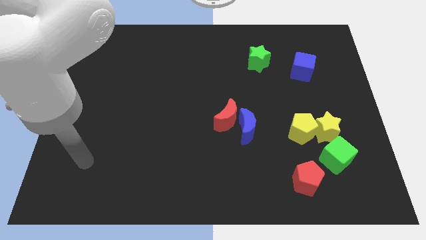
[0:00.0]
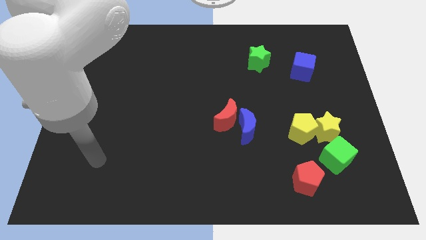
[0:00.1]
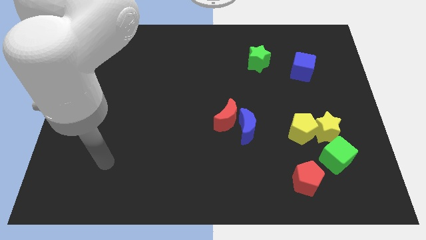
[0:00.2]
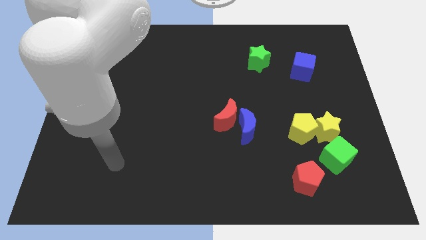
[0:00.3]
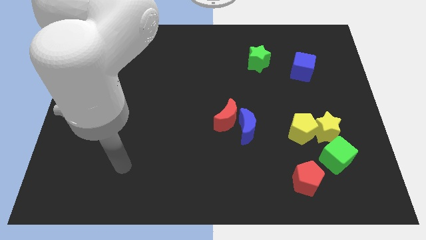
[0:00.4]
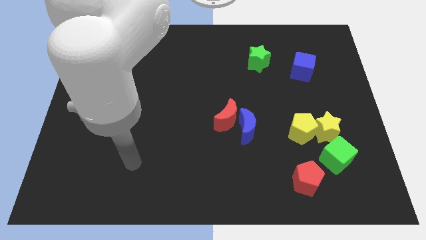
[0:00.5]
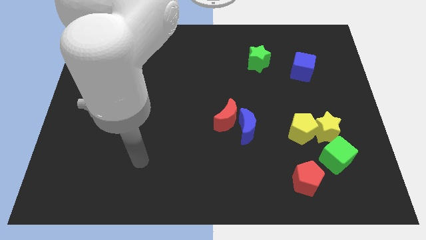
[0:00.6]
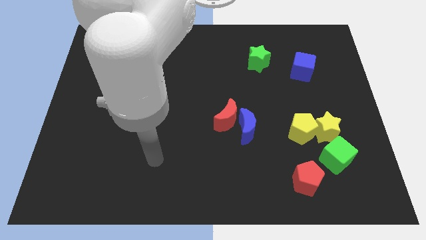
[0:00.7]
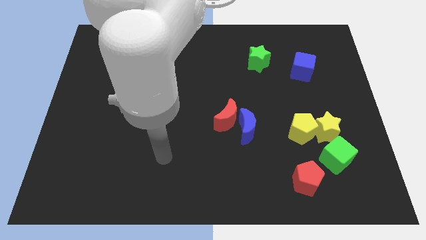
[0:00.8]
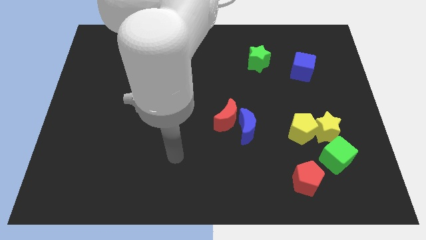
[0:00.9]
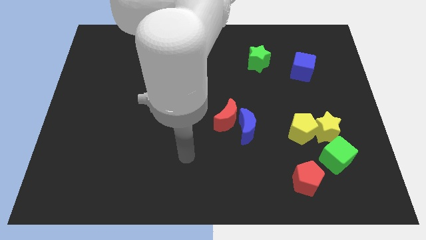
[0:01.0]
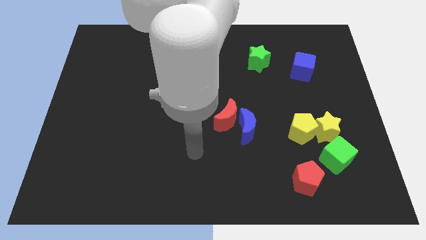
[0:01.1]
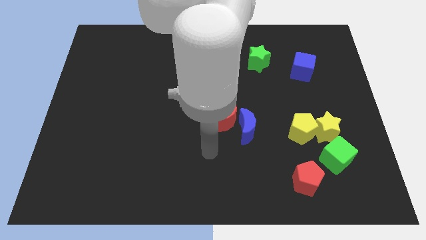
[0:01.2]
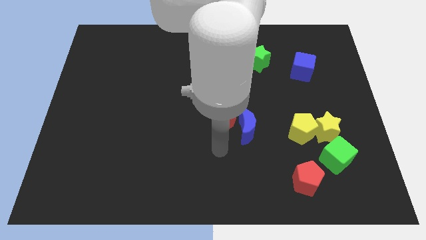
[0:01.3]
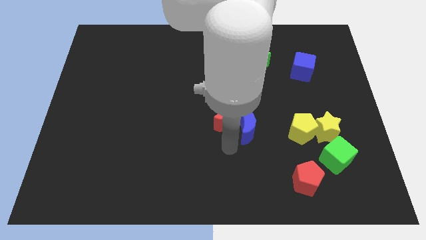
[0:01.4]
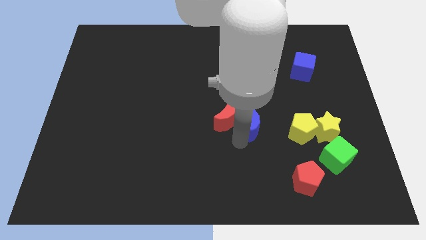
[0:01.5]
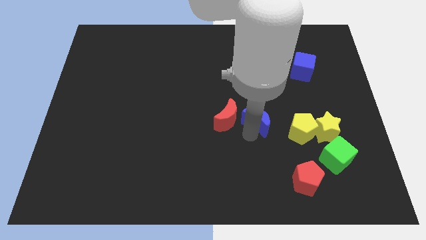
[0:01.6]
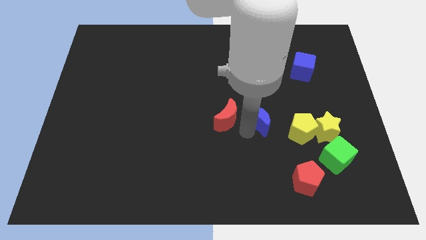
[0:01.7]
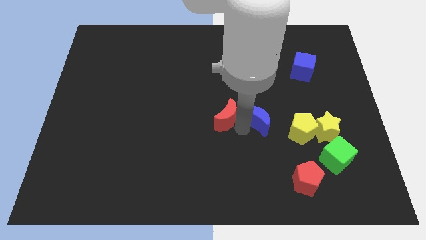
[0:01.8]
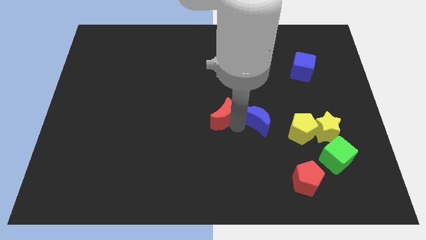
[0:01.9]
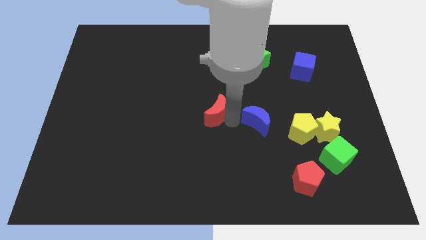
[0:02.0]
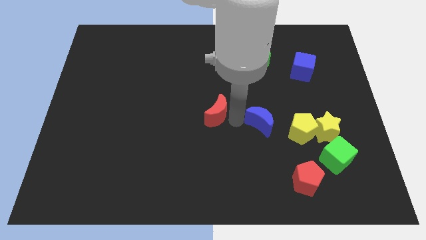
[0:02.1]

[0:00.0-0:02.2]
pull the red moon apart from the blue moon

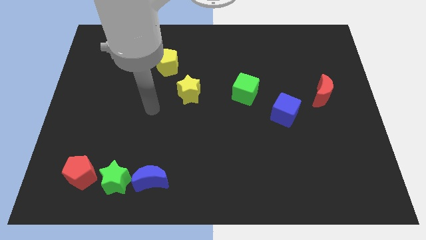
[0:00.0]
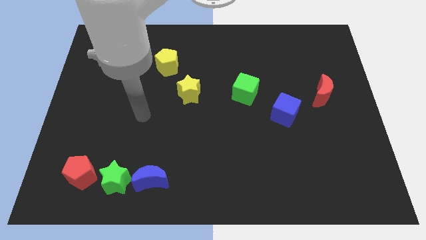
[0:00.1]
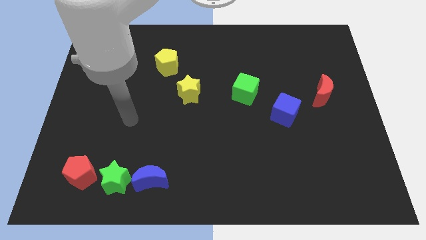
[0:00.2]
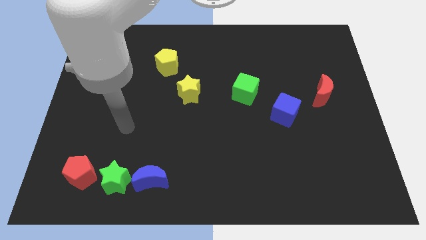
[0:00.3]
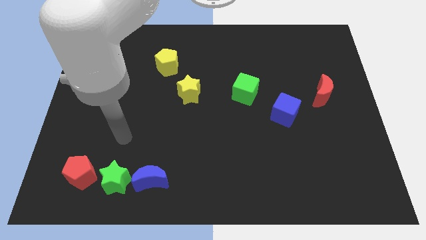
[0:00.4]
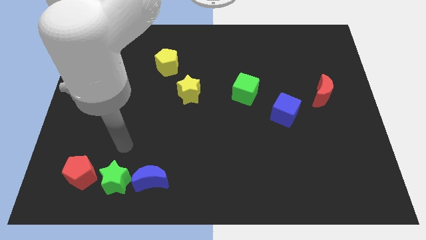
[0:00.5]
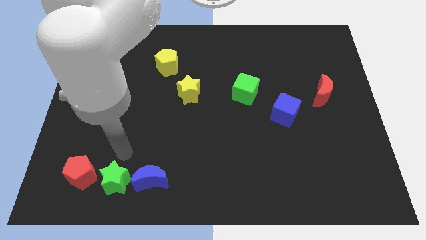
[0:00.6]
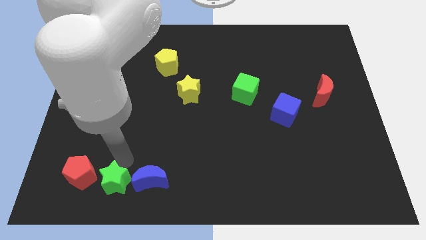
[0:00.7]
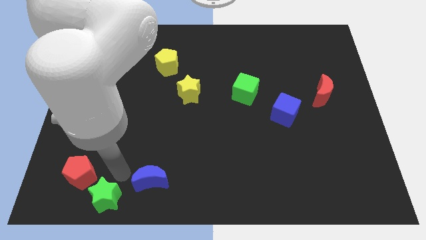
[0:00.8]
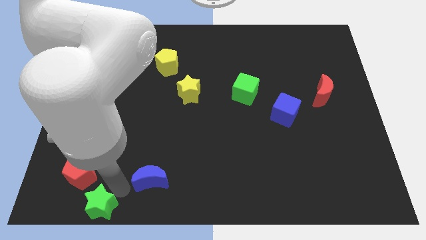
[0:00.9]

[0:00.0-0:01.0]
pull the blue moon apart from the green star

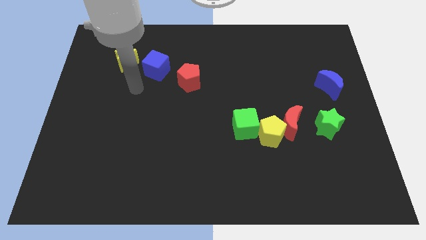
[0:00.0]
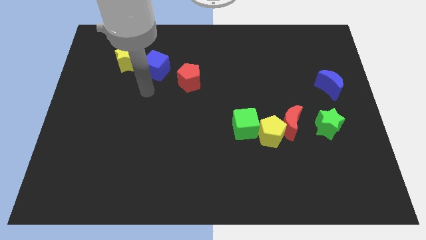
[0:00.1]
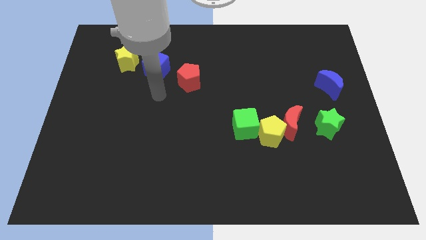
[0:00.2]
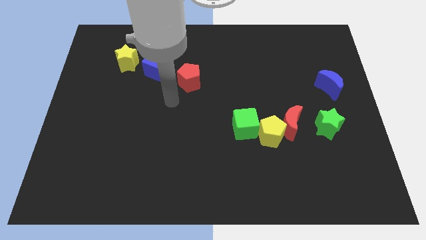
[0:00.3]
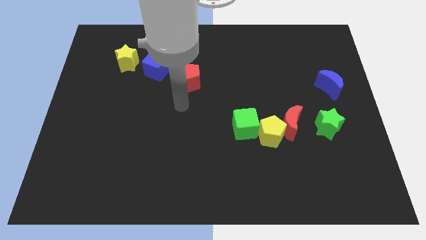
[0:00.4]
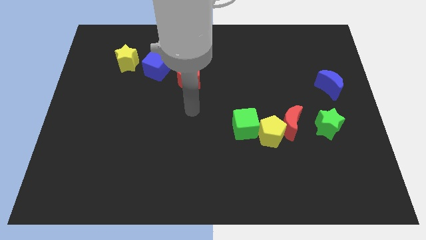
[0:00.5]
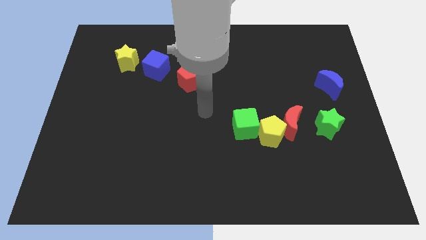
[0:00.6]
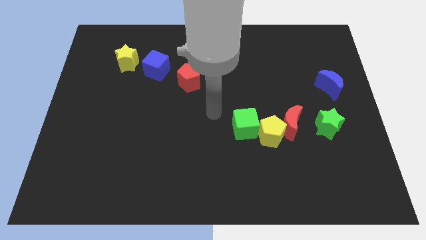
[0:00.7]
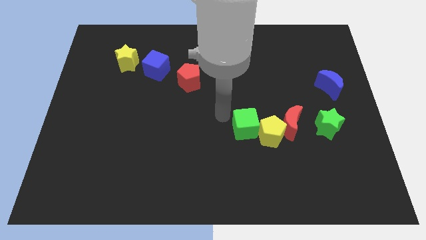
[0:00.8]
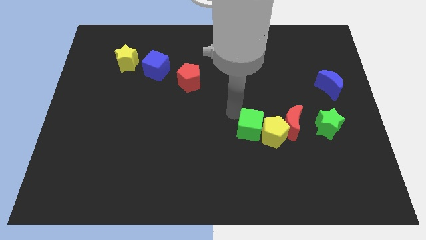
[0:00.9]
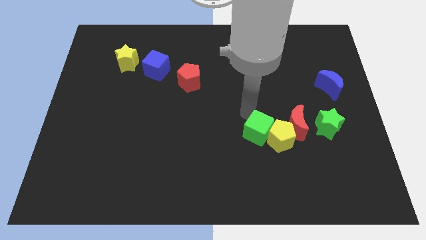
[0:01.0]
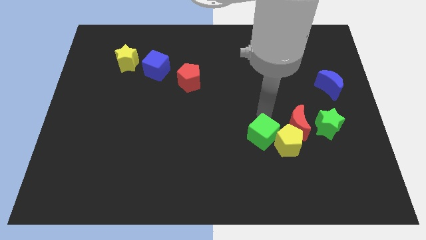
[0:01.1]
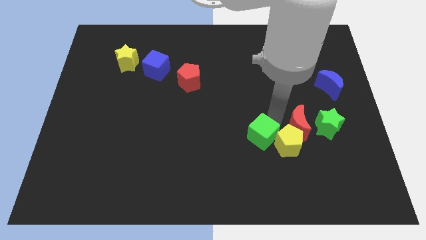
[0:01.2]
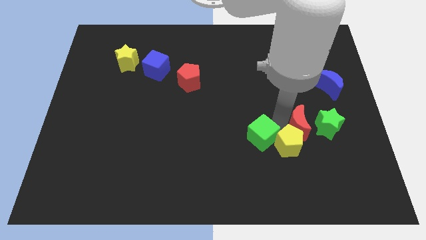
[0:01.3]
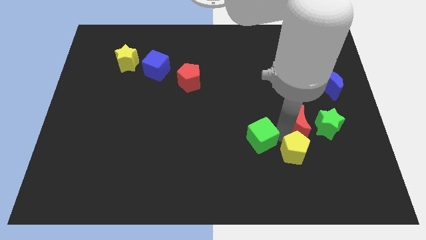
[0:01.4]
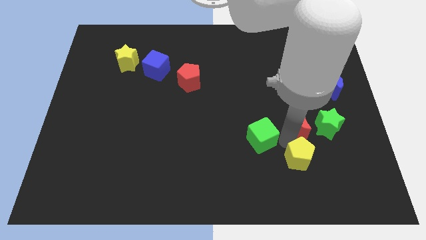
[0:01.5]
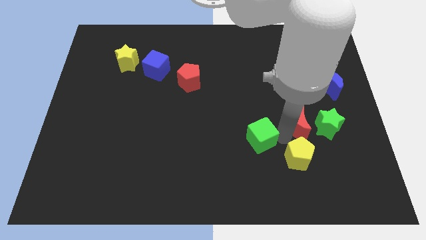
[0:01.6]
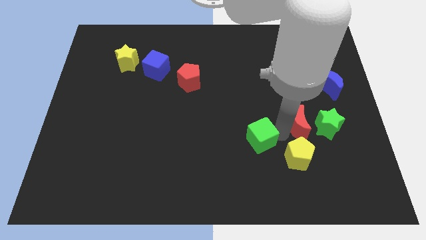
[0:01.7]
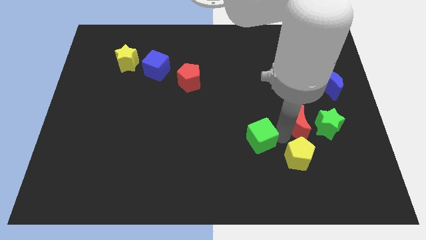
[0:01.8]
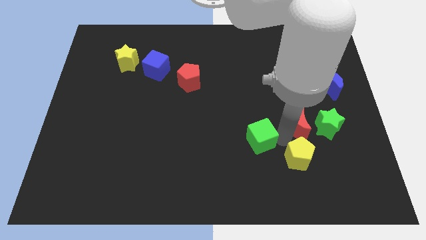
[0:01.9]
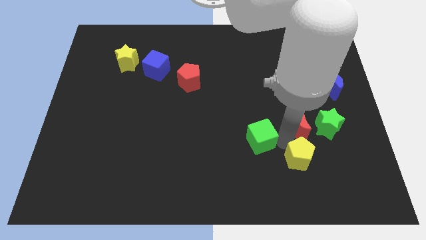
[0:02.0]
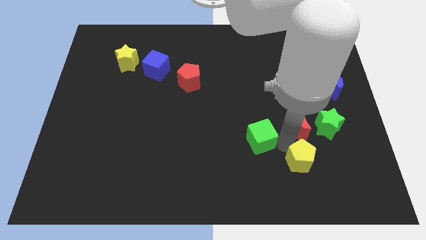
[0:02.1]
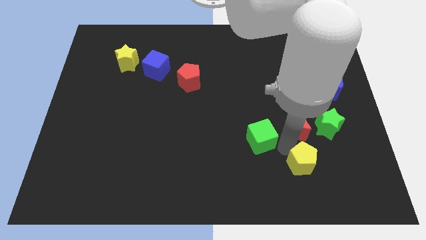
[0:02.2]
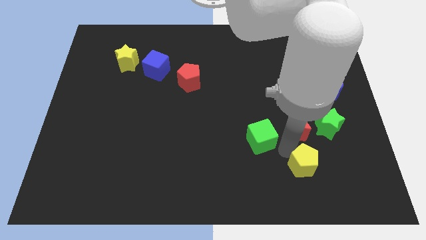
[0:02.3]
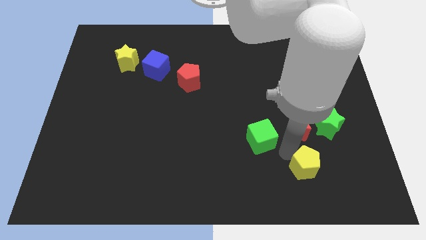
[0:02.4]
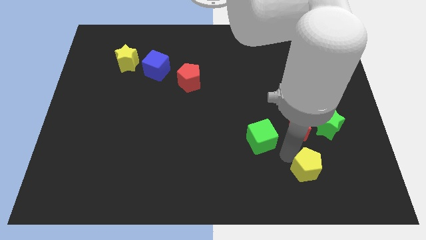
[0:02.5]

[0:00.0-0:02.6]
separate the yellow pentagon from the red moon and green cube

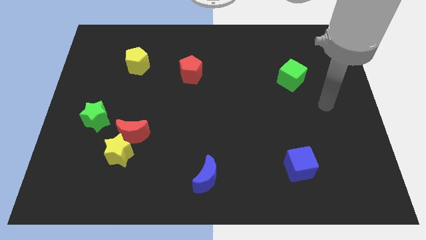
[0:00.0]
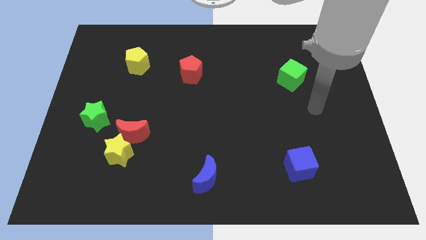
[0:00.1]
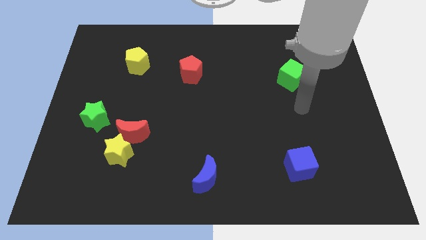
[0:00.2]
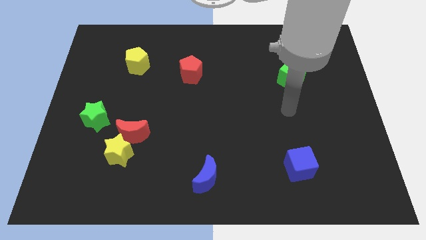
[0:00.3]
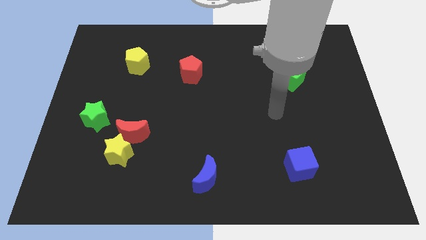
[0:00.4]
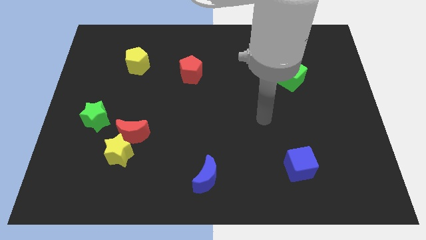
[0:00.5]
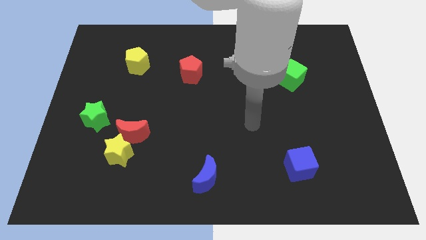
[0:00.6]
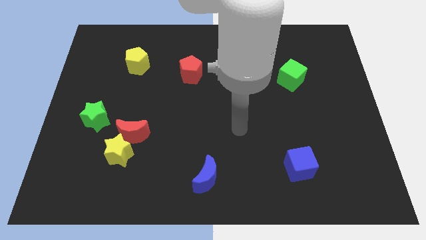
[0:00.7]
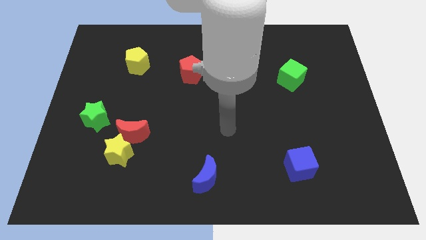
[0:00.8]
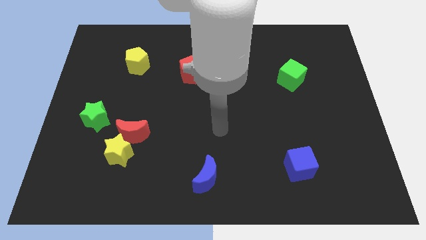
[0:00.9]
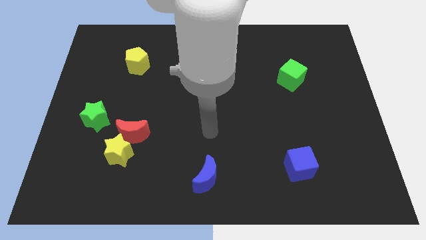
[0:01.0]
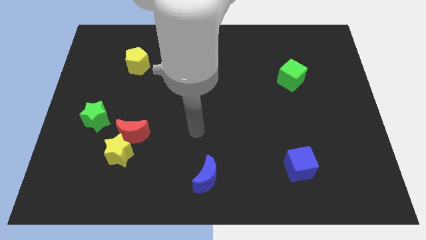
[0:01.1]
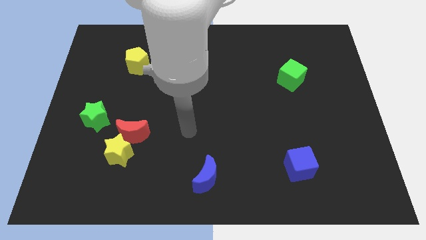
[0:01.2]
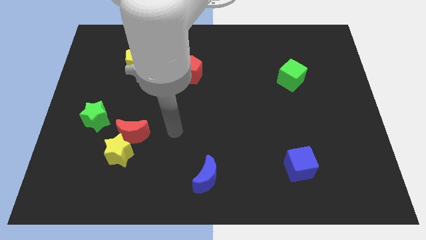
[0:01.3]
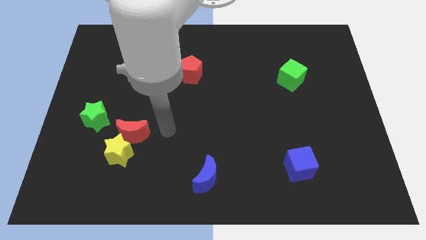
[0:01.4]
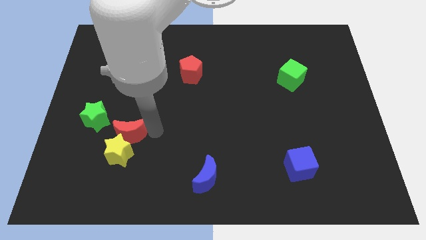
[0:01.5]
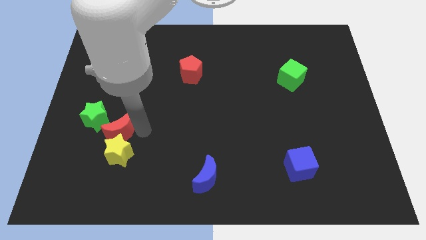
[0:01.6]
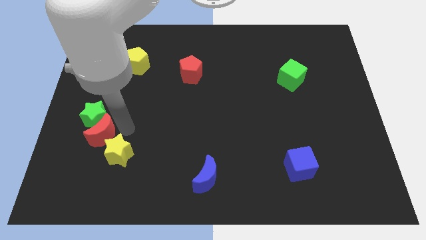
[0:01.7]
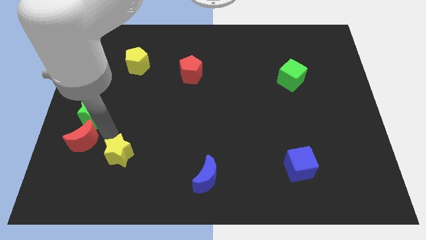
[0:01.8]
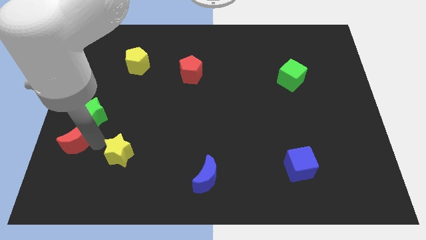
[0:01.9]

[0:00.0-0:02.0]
move the yellow star away from the red moon

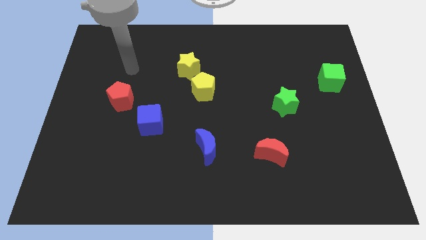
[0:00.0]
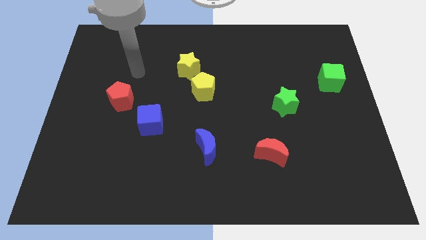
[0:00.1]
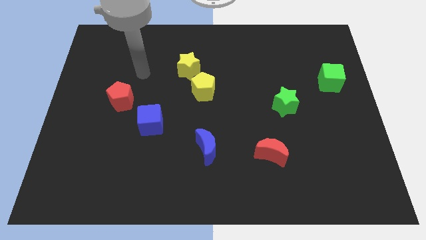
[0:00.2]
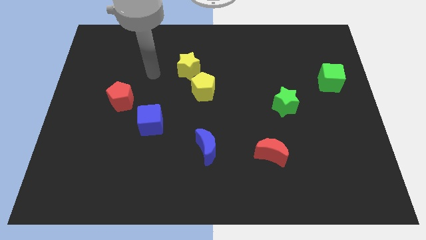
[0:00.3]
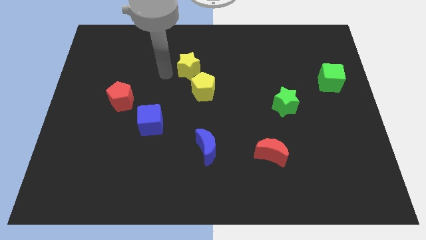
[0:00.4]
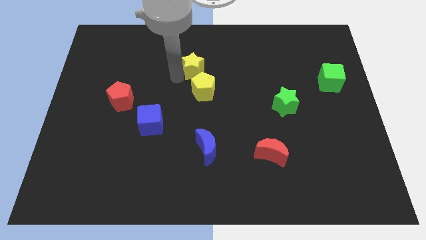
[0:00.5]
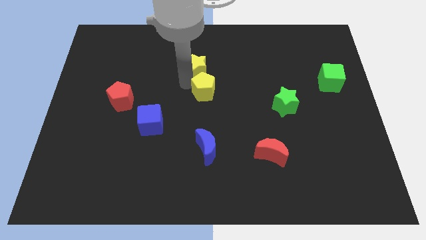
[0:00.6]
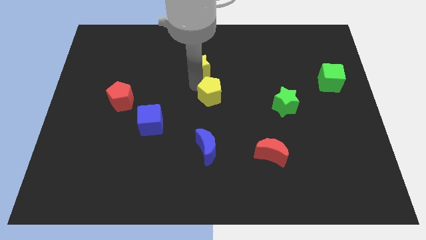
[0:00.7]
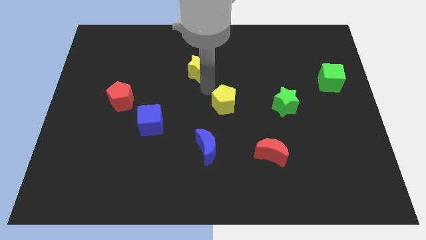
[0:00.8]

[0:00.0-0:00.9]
separate the yellow star from the yellow pentagon

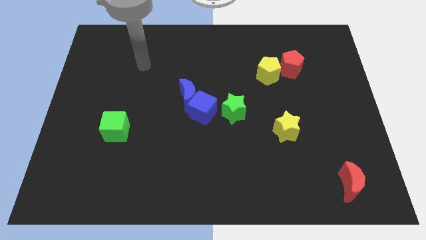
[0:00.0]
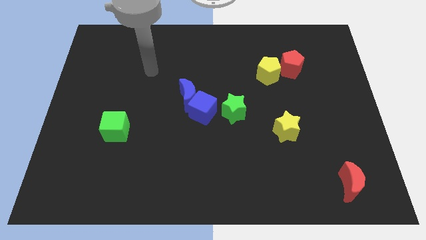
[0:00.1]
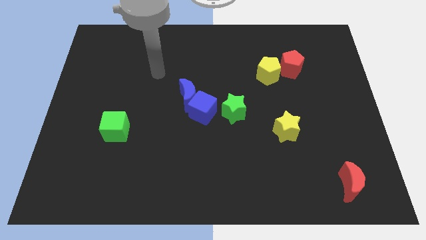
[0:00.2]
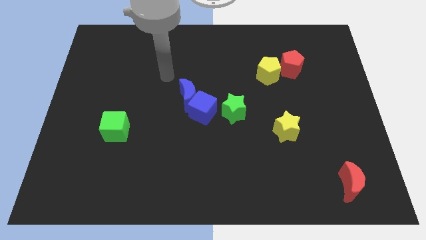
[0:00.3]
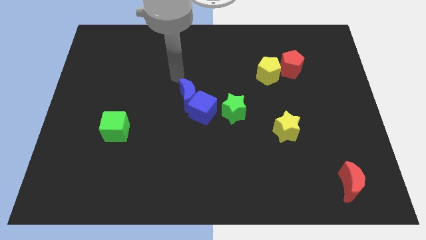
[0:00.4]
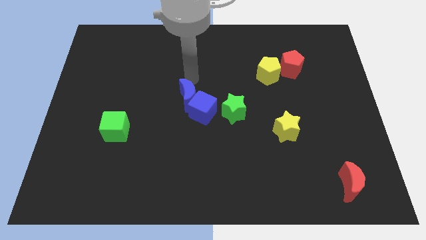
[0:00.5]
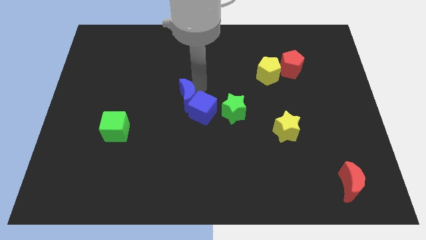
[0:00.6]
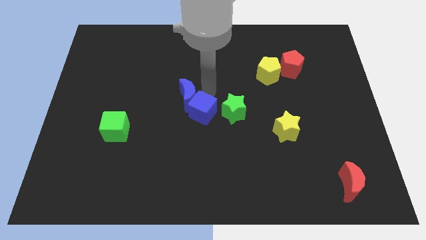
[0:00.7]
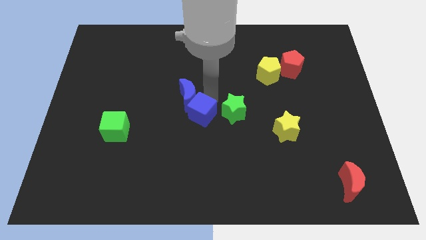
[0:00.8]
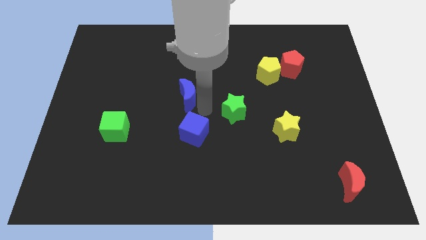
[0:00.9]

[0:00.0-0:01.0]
pull the blue moon apart from the blue cube
